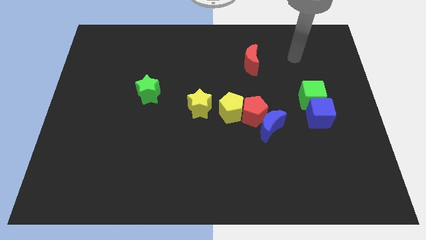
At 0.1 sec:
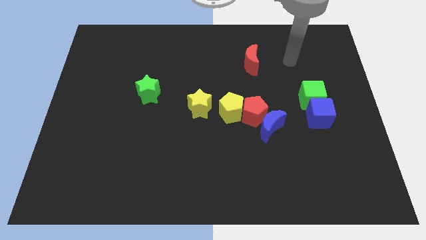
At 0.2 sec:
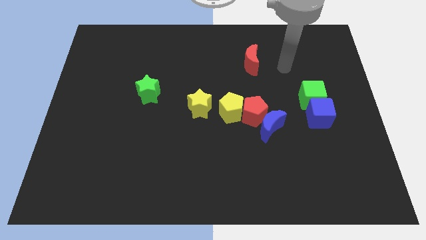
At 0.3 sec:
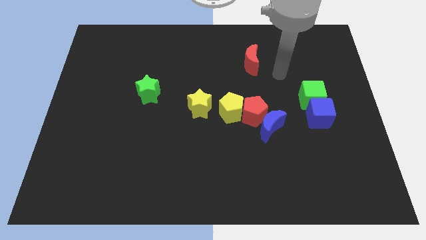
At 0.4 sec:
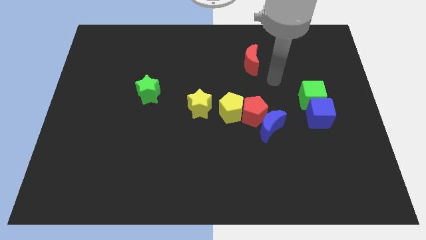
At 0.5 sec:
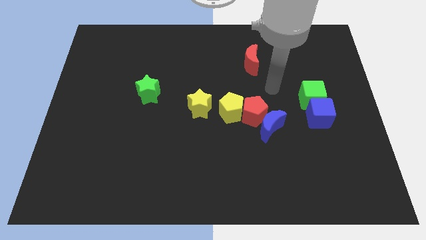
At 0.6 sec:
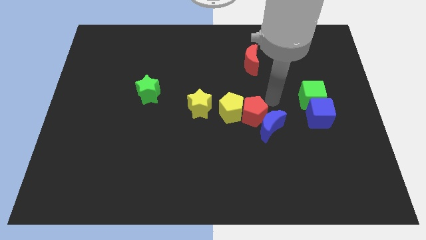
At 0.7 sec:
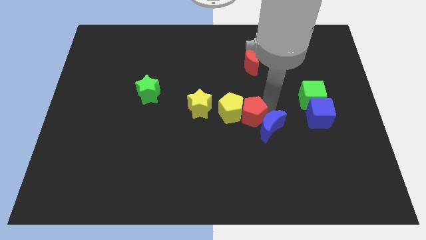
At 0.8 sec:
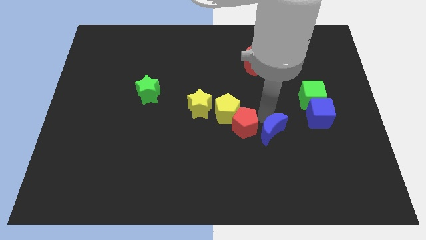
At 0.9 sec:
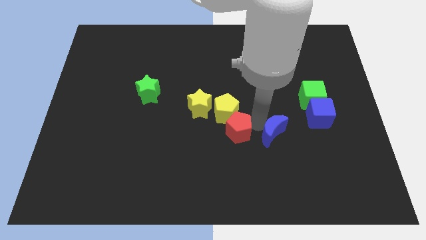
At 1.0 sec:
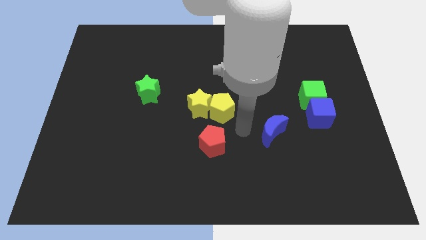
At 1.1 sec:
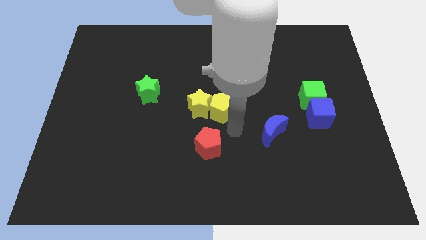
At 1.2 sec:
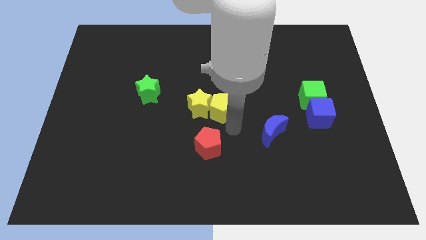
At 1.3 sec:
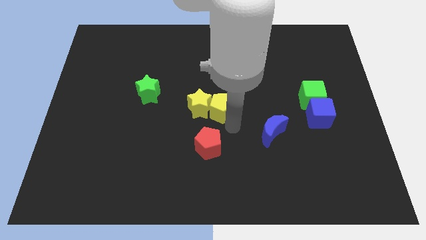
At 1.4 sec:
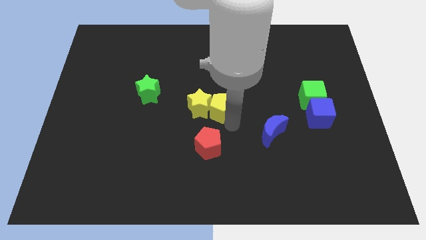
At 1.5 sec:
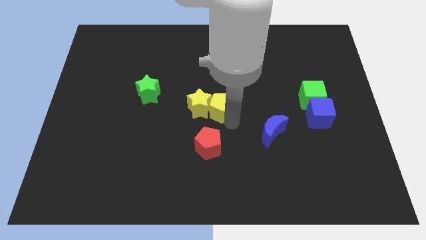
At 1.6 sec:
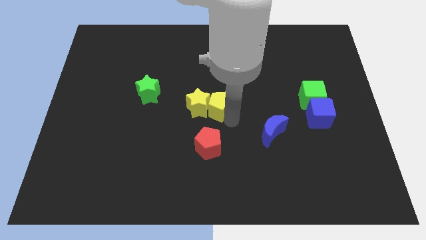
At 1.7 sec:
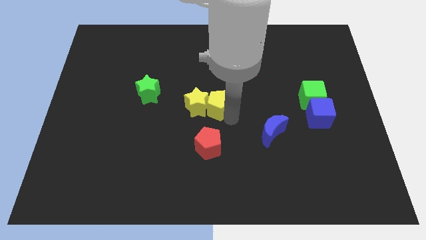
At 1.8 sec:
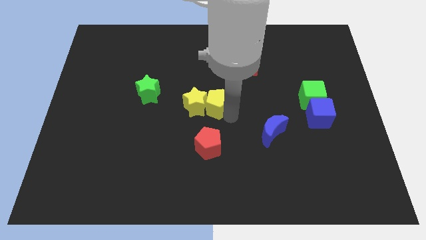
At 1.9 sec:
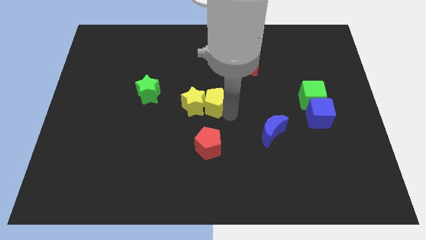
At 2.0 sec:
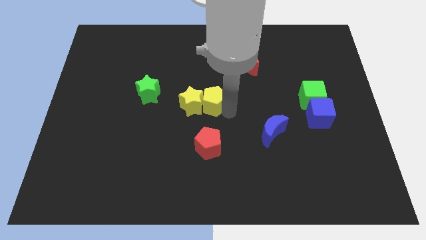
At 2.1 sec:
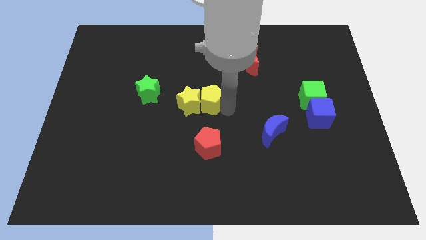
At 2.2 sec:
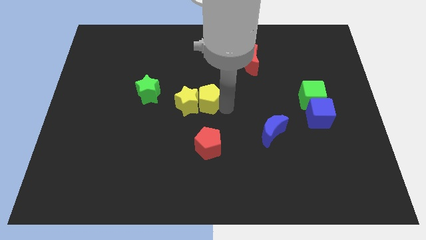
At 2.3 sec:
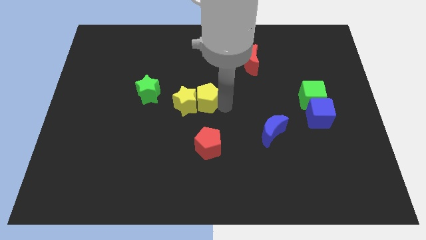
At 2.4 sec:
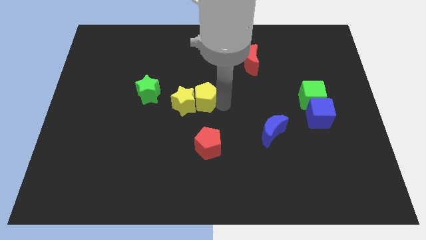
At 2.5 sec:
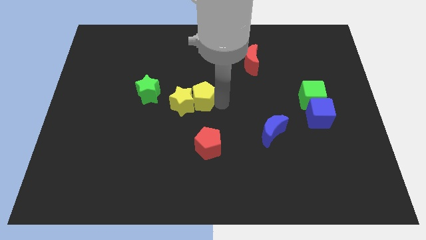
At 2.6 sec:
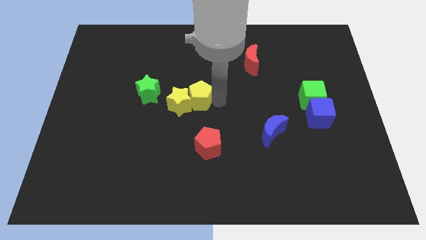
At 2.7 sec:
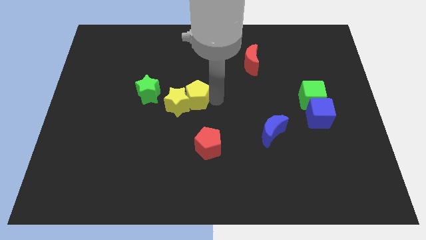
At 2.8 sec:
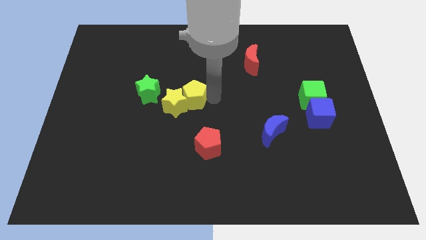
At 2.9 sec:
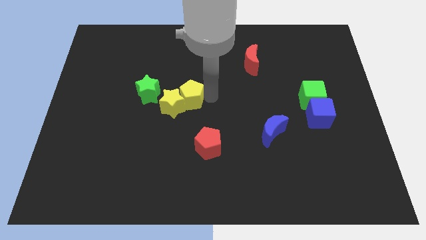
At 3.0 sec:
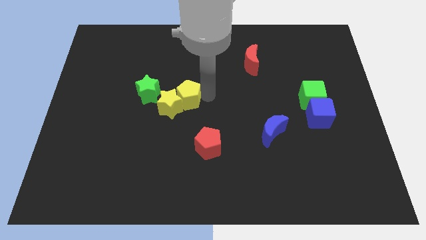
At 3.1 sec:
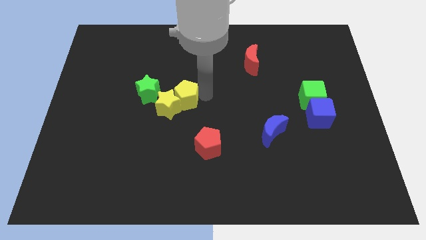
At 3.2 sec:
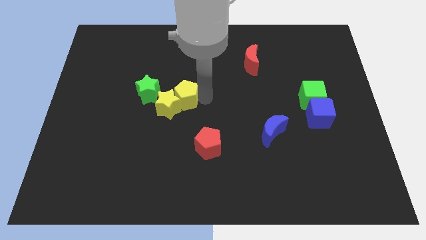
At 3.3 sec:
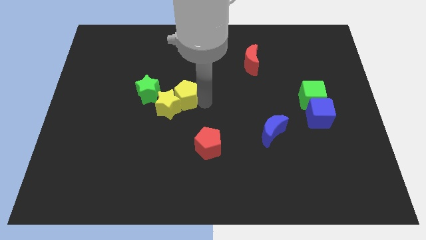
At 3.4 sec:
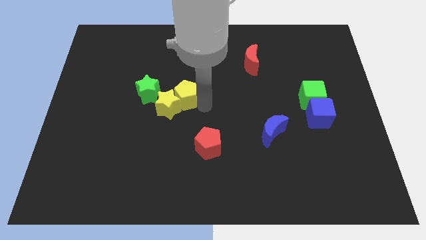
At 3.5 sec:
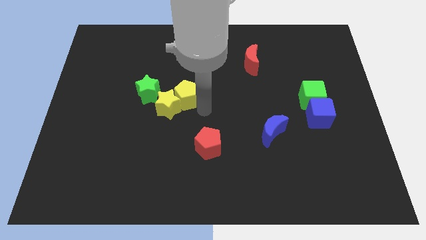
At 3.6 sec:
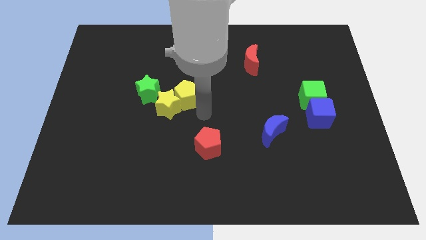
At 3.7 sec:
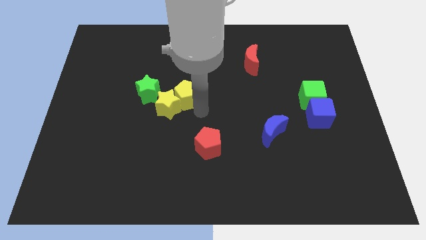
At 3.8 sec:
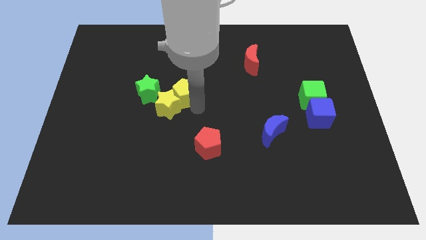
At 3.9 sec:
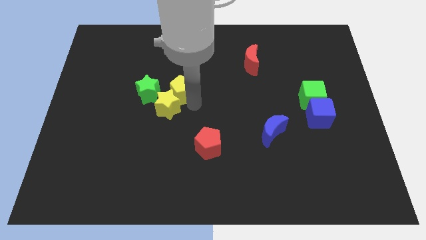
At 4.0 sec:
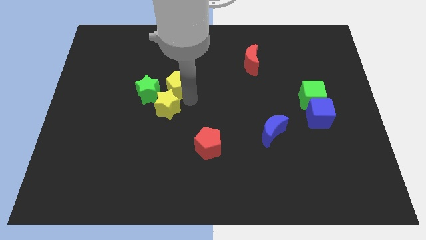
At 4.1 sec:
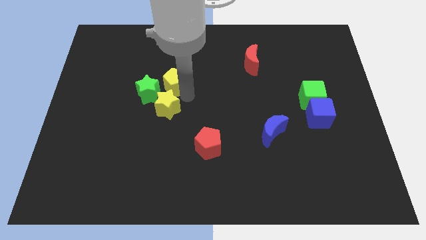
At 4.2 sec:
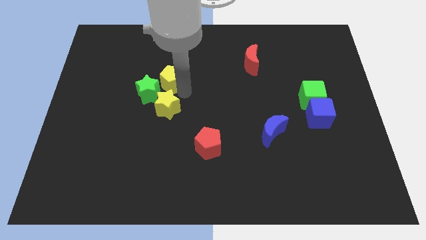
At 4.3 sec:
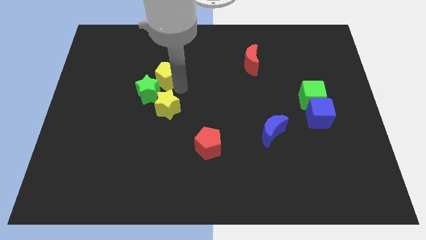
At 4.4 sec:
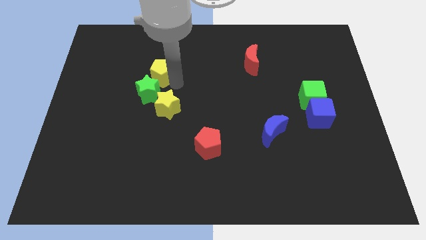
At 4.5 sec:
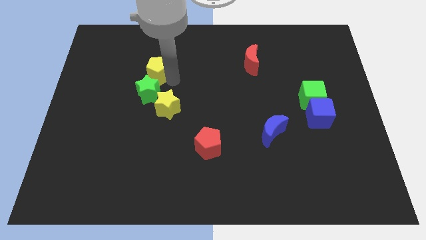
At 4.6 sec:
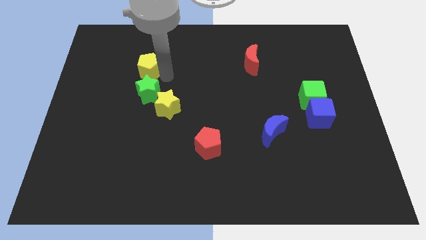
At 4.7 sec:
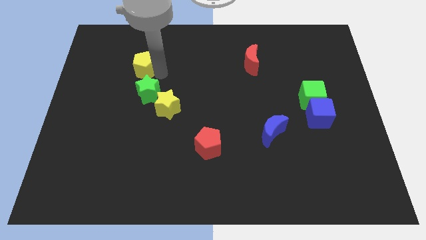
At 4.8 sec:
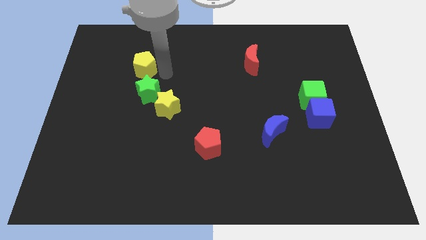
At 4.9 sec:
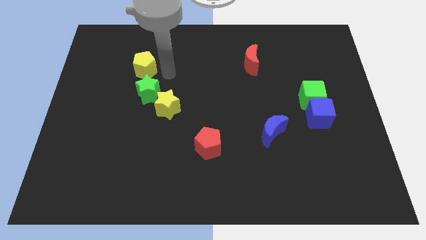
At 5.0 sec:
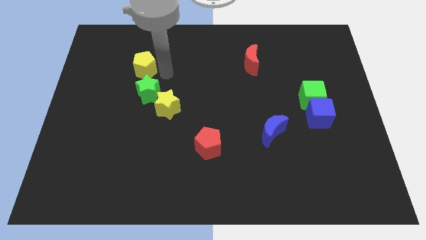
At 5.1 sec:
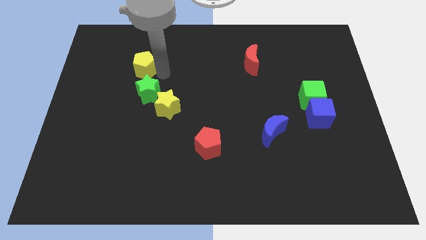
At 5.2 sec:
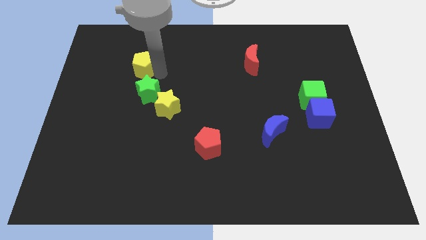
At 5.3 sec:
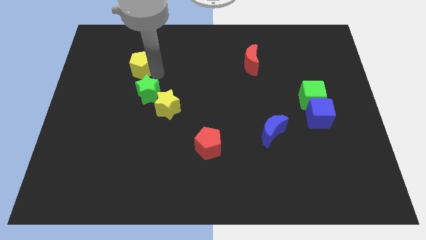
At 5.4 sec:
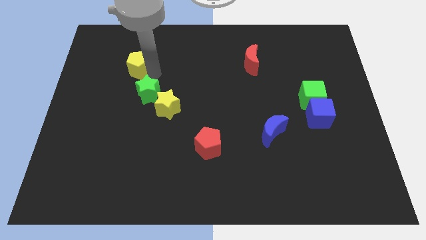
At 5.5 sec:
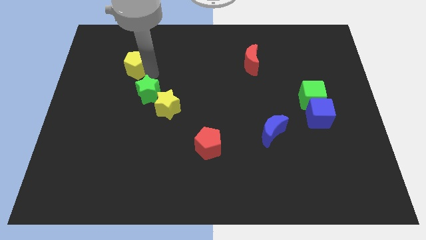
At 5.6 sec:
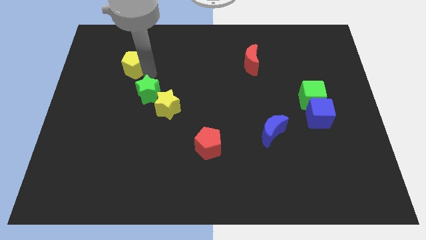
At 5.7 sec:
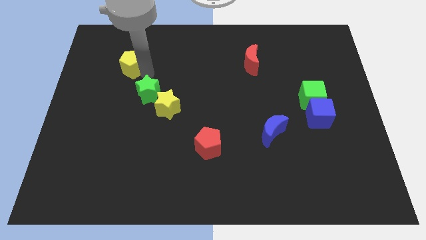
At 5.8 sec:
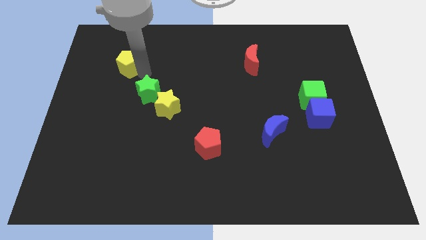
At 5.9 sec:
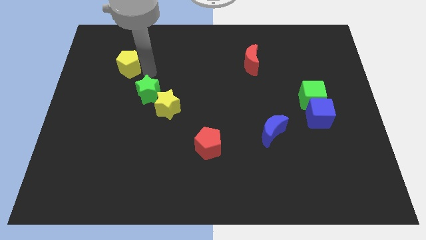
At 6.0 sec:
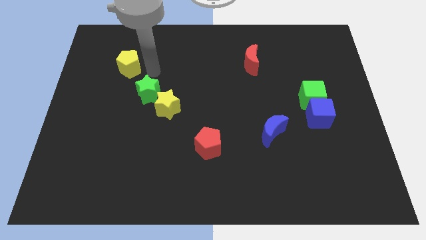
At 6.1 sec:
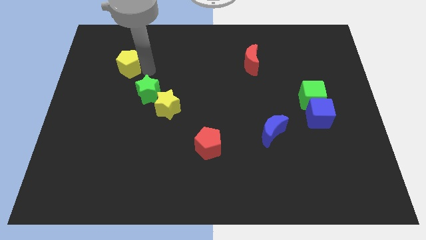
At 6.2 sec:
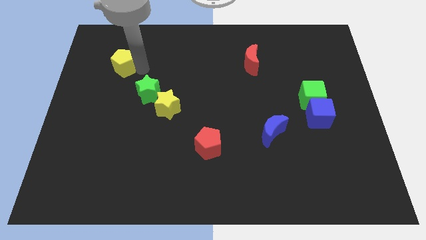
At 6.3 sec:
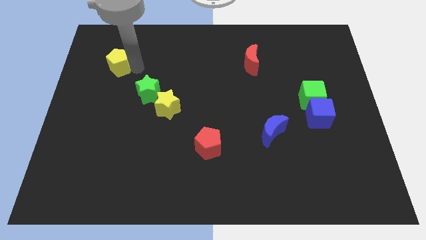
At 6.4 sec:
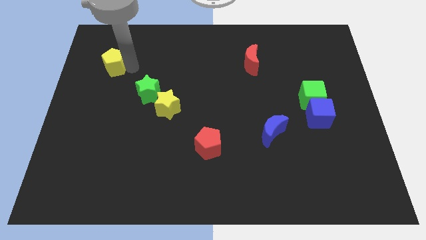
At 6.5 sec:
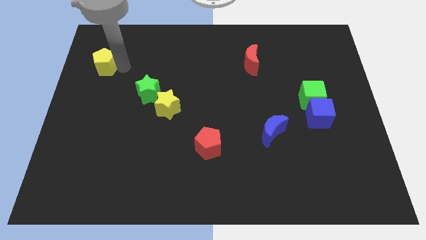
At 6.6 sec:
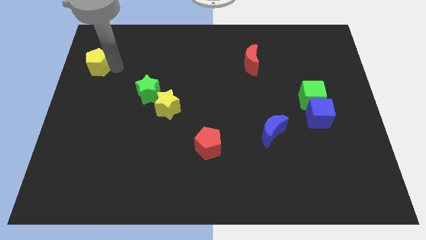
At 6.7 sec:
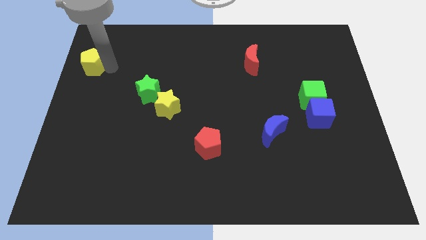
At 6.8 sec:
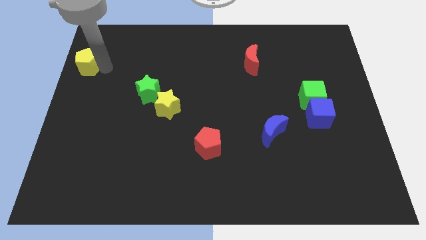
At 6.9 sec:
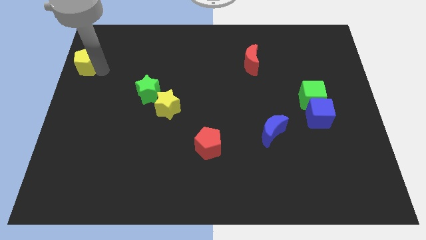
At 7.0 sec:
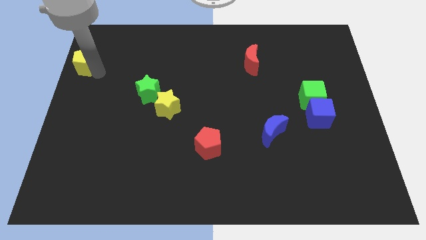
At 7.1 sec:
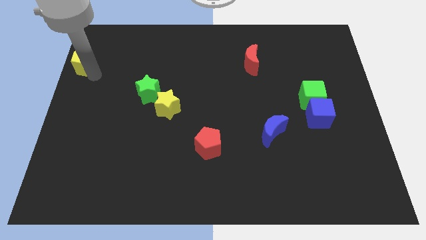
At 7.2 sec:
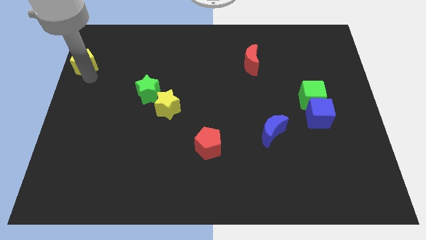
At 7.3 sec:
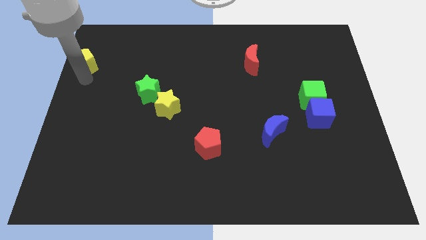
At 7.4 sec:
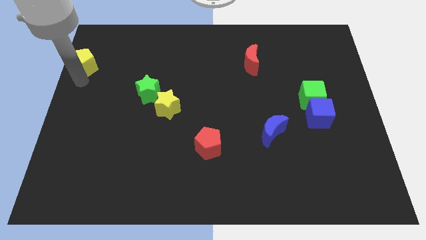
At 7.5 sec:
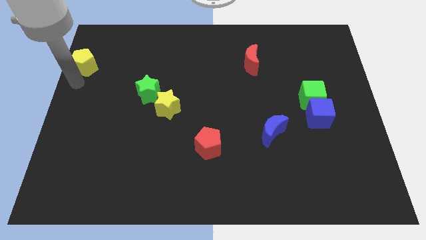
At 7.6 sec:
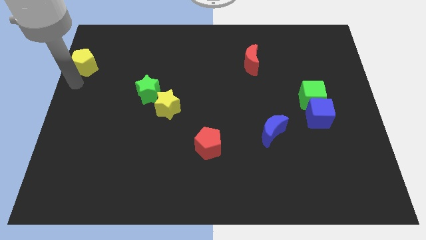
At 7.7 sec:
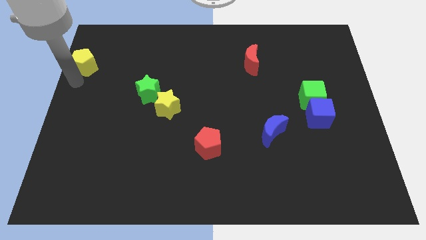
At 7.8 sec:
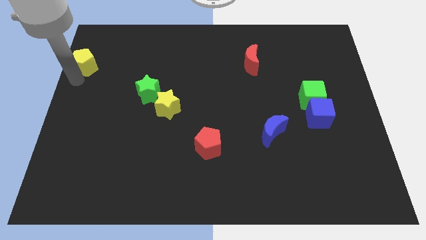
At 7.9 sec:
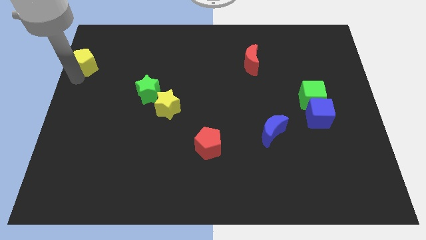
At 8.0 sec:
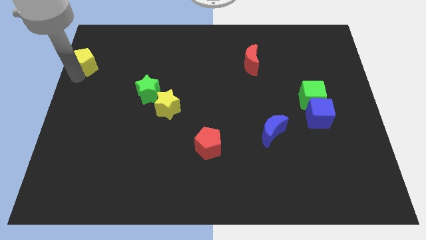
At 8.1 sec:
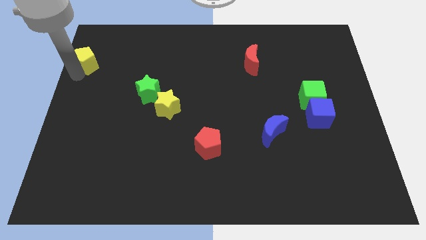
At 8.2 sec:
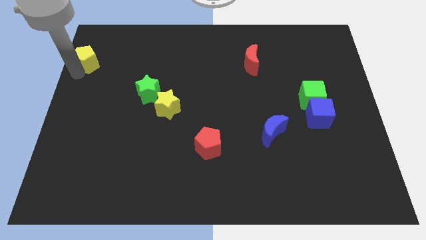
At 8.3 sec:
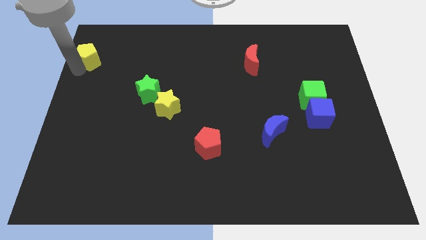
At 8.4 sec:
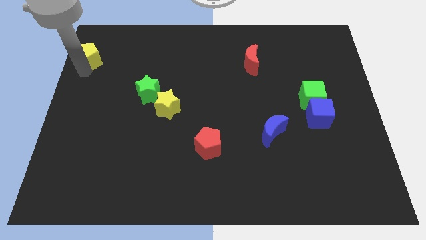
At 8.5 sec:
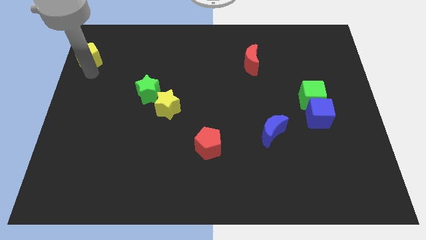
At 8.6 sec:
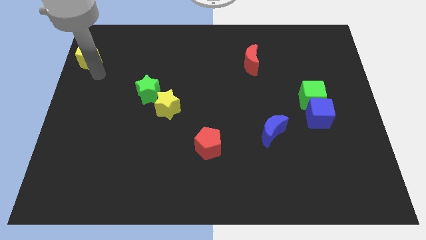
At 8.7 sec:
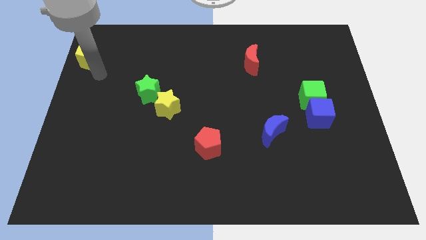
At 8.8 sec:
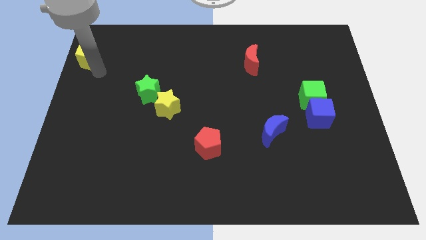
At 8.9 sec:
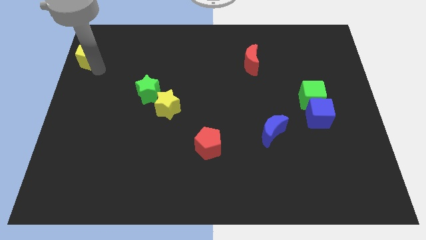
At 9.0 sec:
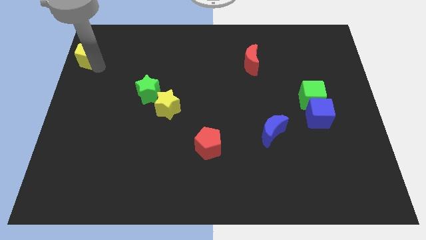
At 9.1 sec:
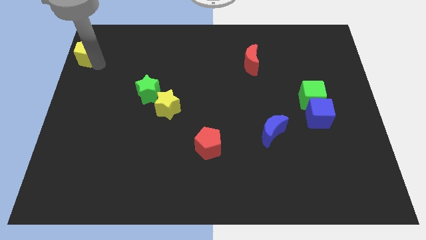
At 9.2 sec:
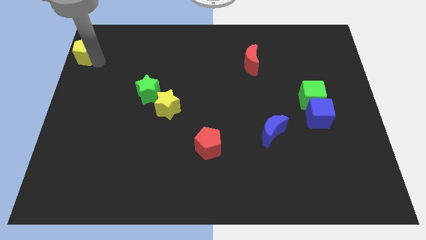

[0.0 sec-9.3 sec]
put the yellow pentagon to the top left corner
